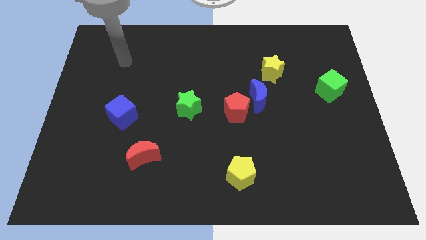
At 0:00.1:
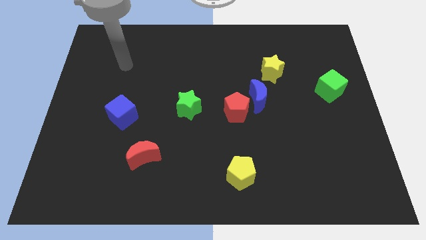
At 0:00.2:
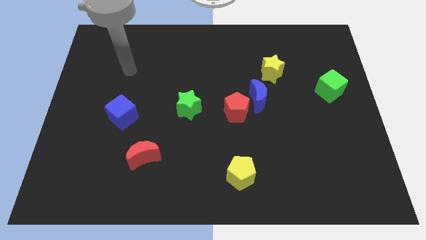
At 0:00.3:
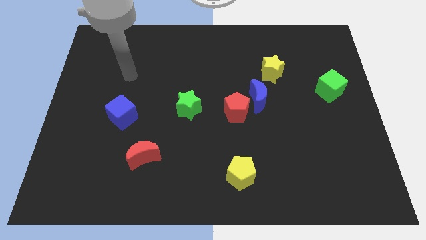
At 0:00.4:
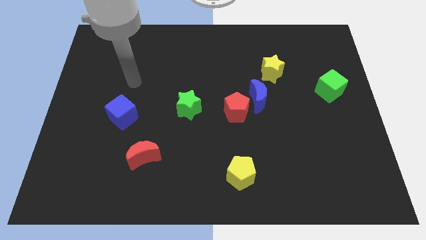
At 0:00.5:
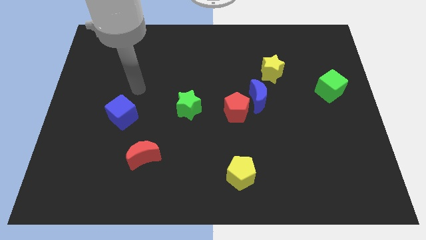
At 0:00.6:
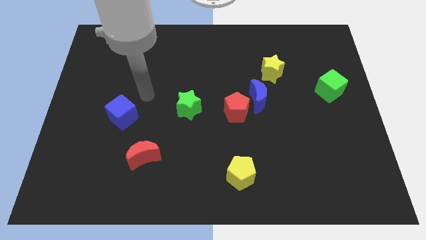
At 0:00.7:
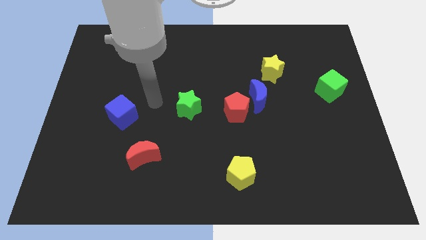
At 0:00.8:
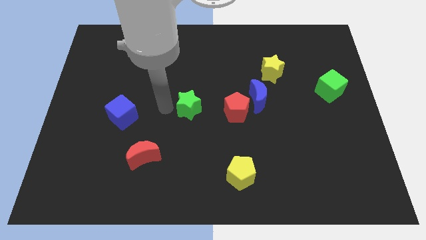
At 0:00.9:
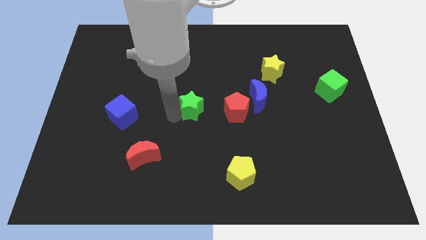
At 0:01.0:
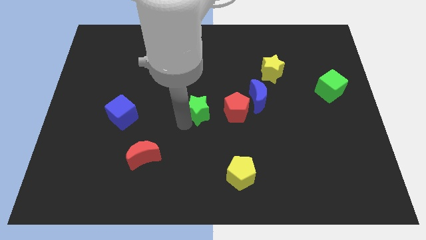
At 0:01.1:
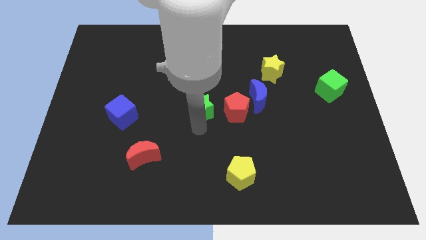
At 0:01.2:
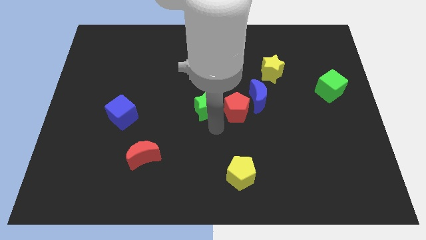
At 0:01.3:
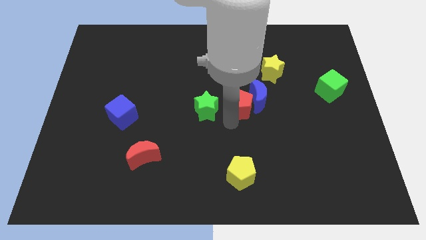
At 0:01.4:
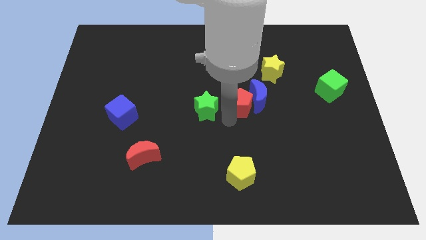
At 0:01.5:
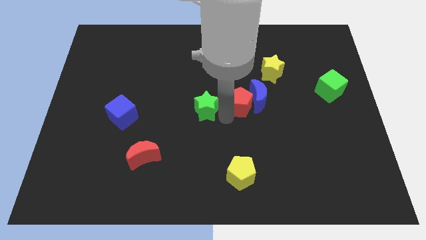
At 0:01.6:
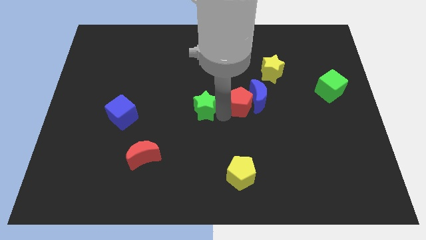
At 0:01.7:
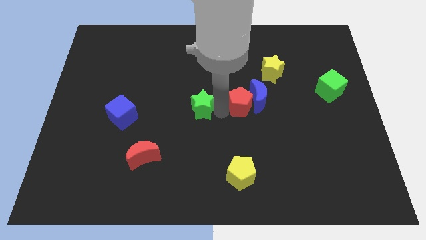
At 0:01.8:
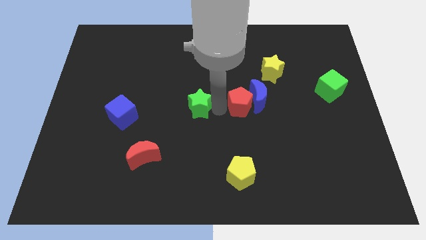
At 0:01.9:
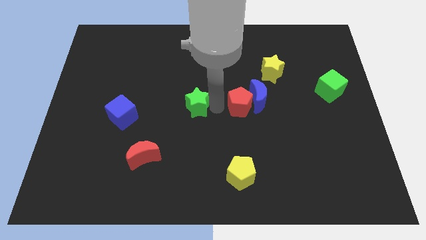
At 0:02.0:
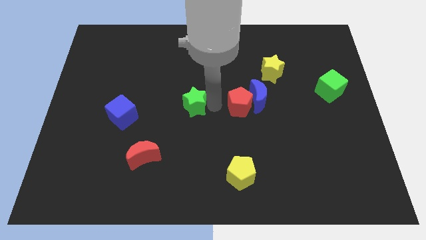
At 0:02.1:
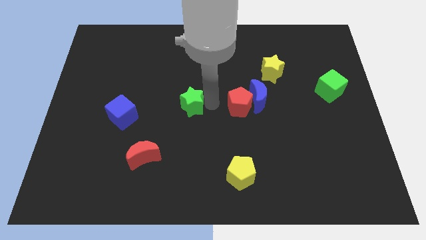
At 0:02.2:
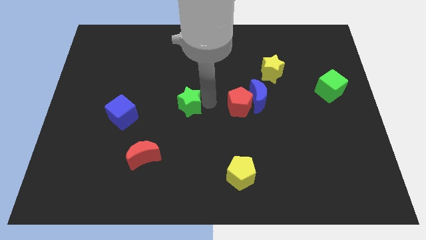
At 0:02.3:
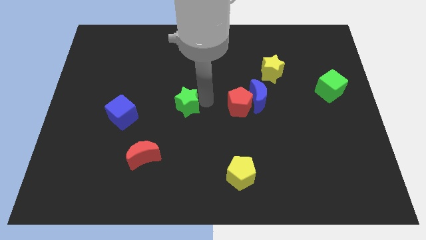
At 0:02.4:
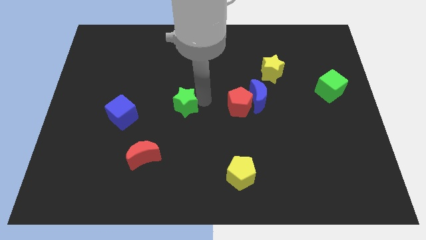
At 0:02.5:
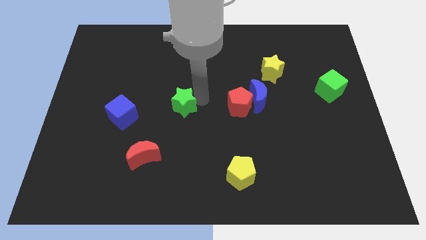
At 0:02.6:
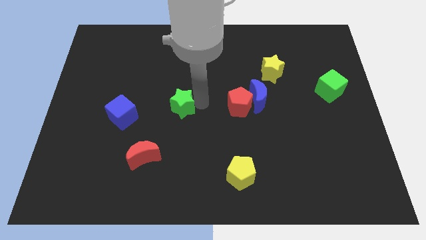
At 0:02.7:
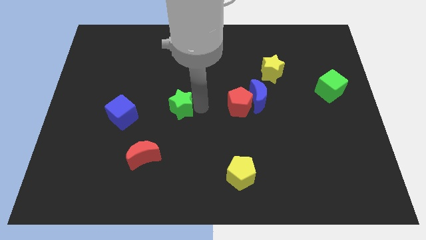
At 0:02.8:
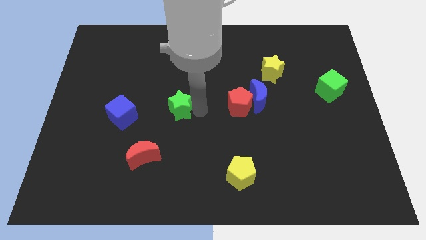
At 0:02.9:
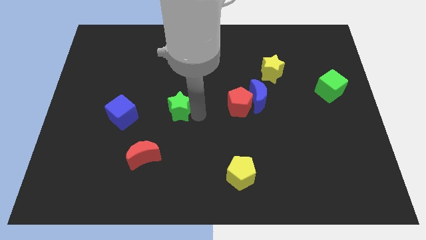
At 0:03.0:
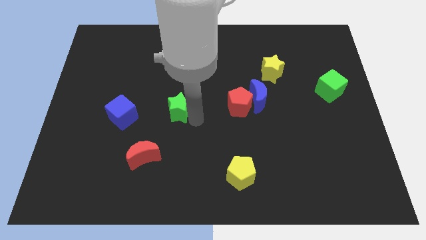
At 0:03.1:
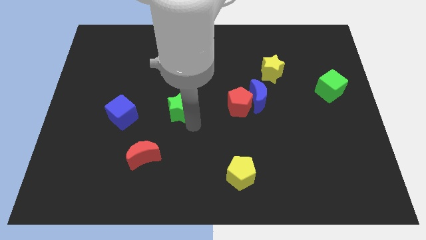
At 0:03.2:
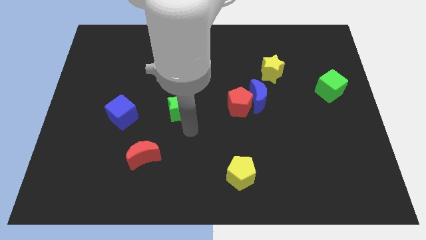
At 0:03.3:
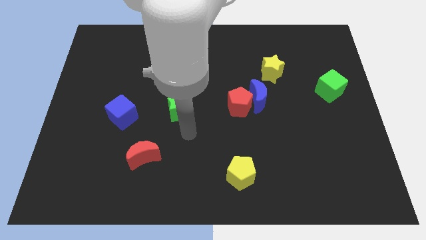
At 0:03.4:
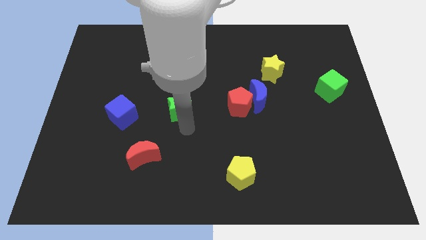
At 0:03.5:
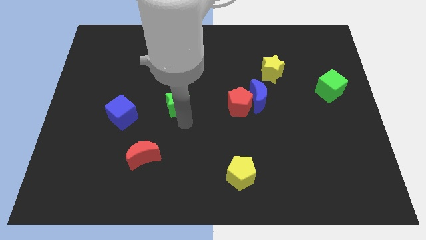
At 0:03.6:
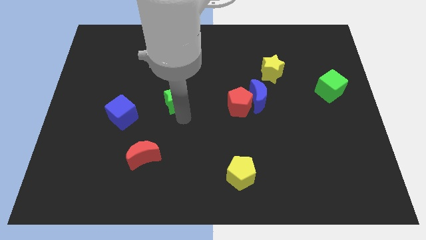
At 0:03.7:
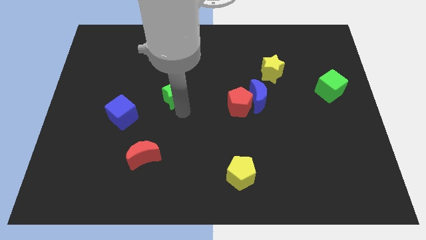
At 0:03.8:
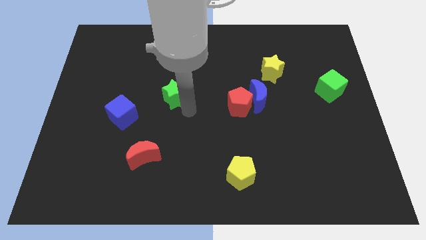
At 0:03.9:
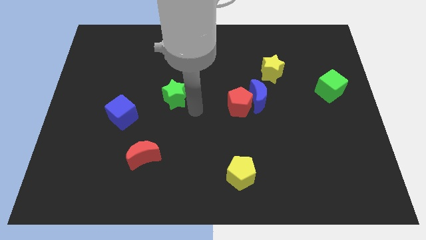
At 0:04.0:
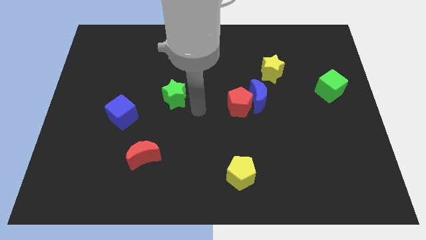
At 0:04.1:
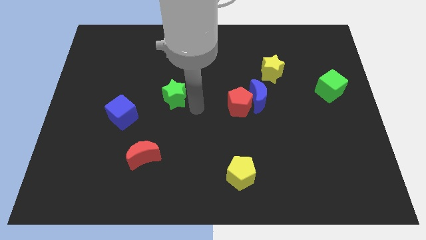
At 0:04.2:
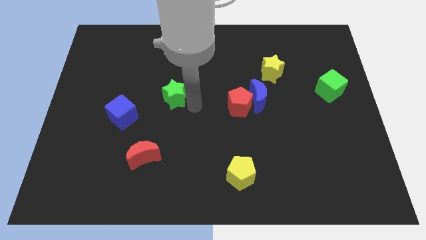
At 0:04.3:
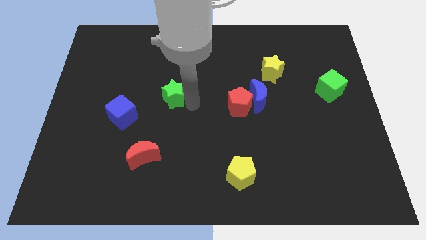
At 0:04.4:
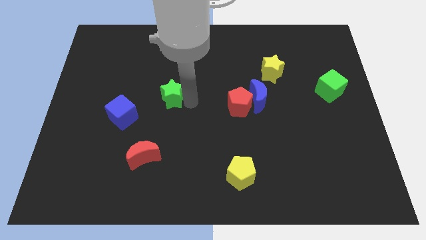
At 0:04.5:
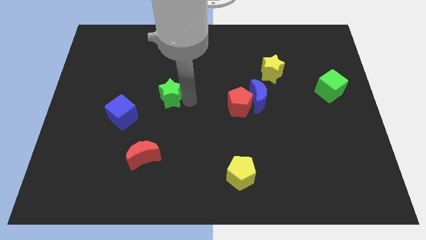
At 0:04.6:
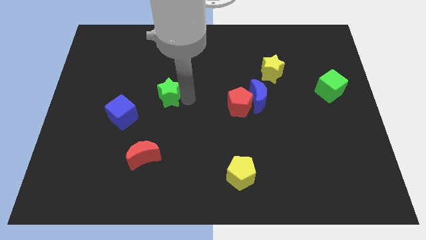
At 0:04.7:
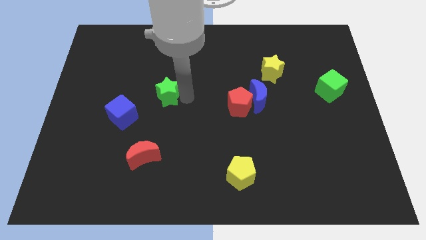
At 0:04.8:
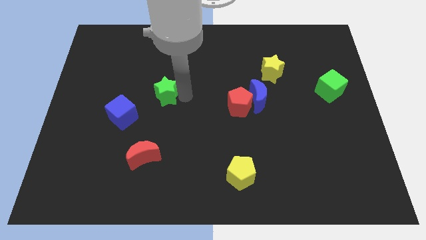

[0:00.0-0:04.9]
slide the green star up and left diagonally slightly

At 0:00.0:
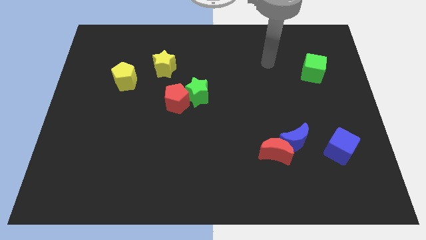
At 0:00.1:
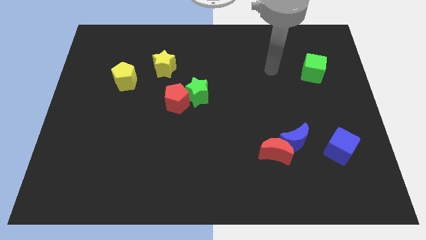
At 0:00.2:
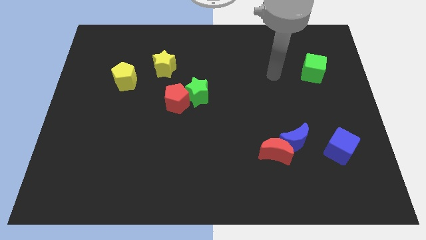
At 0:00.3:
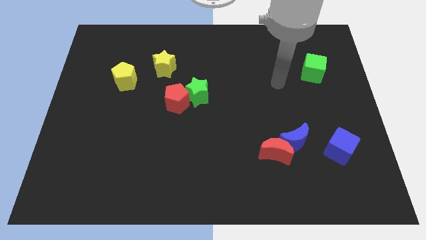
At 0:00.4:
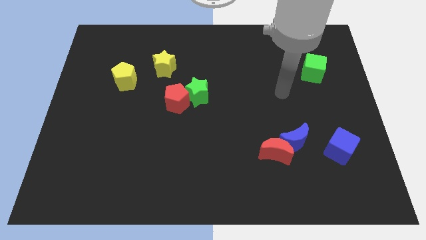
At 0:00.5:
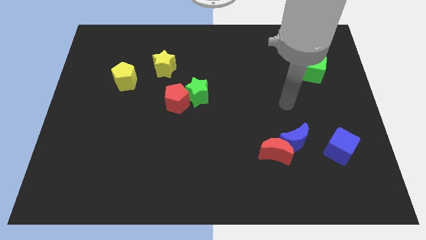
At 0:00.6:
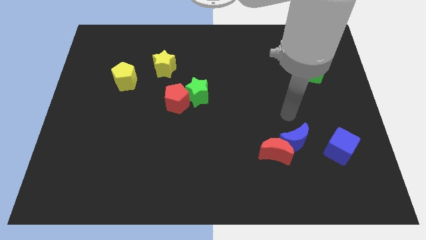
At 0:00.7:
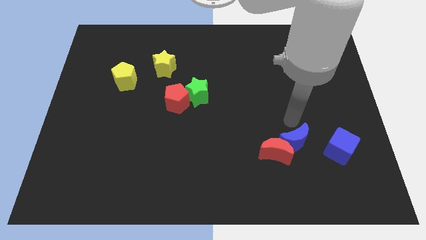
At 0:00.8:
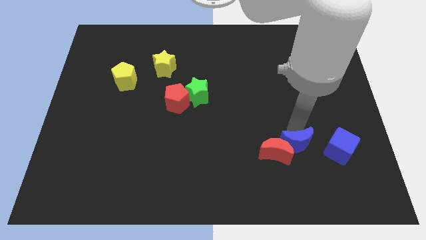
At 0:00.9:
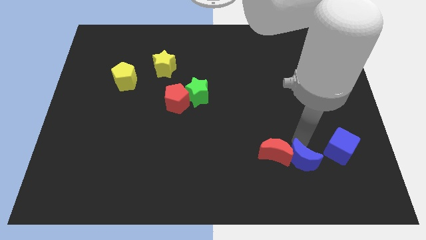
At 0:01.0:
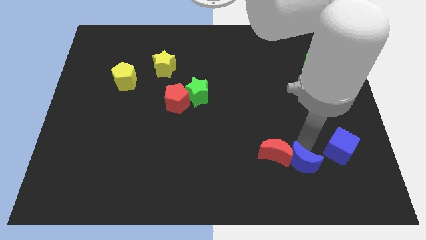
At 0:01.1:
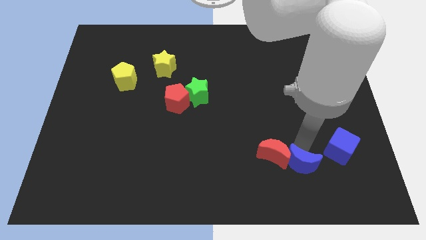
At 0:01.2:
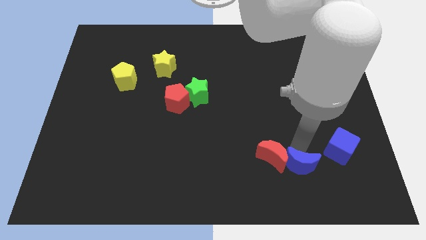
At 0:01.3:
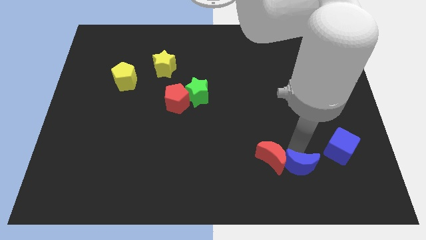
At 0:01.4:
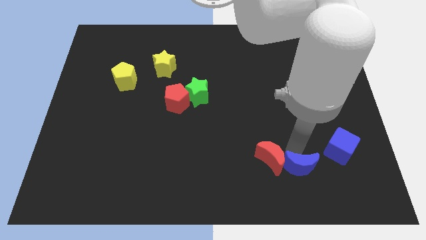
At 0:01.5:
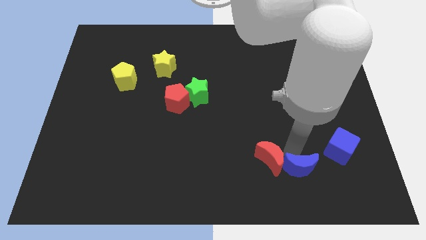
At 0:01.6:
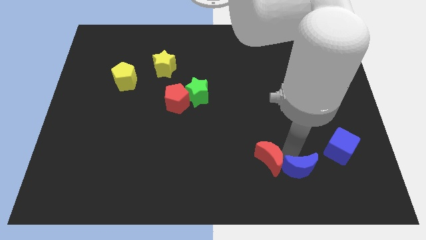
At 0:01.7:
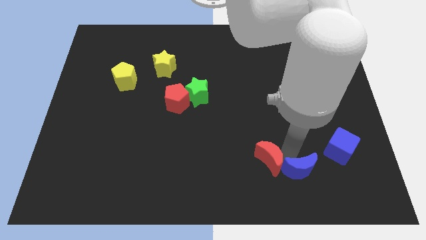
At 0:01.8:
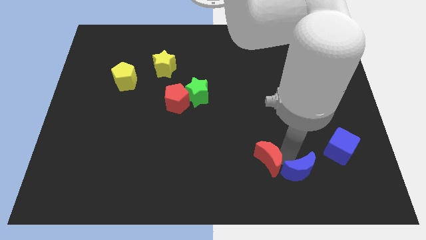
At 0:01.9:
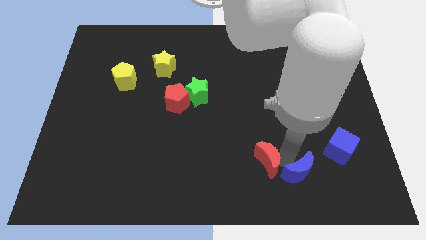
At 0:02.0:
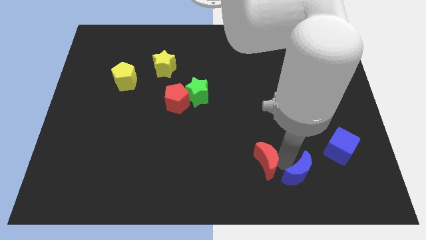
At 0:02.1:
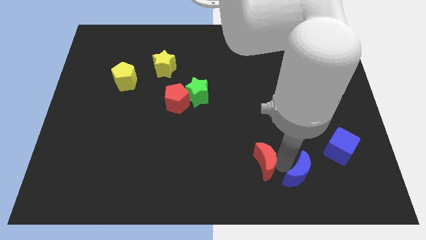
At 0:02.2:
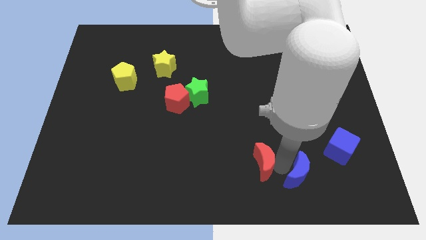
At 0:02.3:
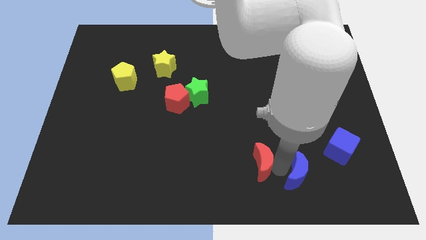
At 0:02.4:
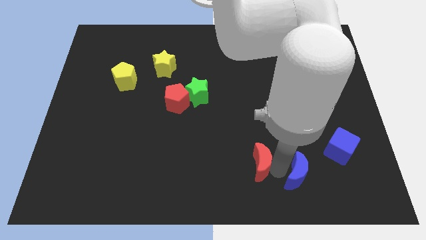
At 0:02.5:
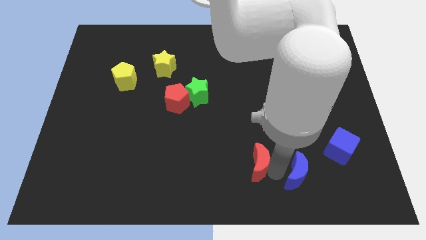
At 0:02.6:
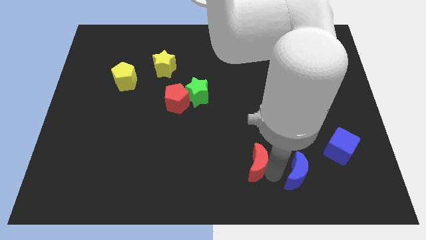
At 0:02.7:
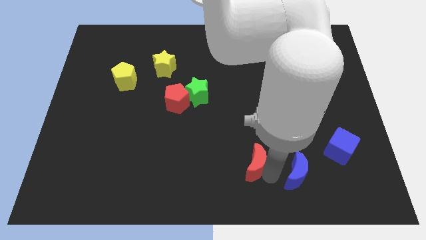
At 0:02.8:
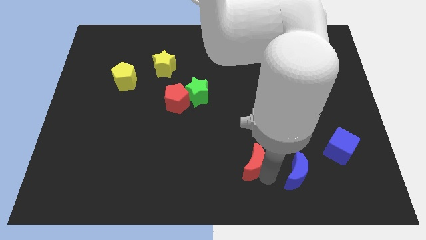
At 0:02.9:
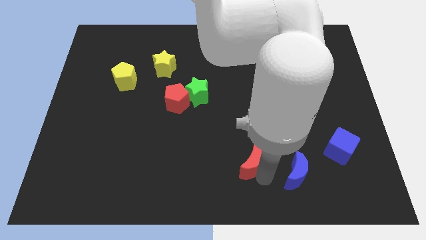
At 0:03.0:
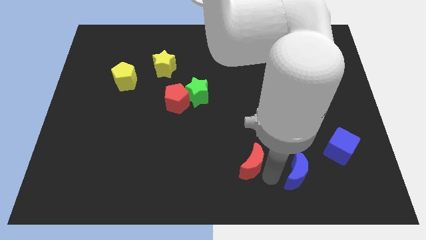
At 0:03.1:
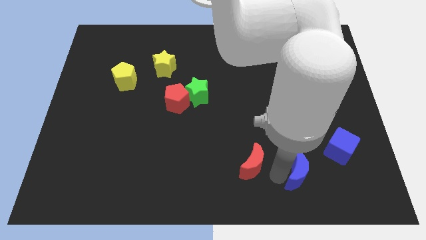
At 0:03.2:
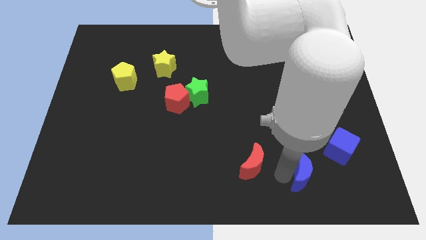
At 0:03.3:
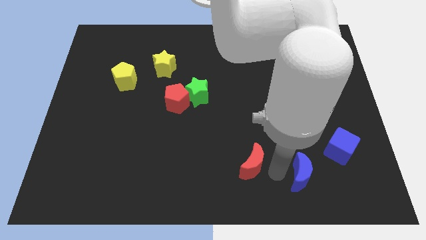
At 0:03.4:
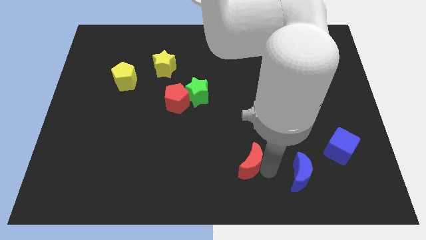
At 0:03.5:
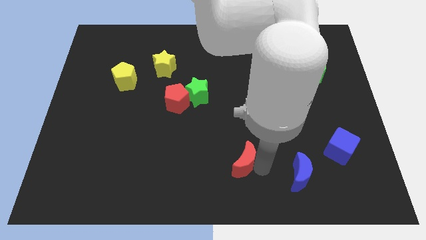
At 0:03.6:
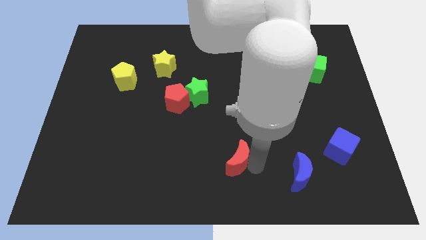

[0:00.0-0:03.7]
move the red moon somewhat left
